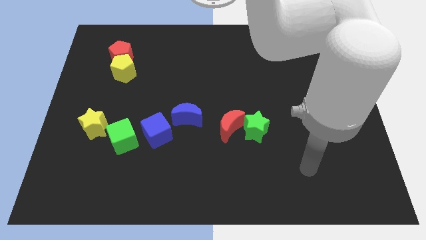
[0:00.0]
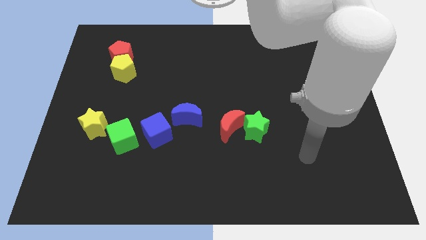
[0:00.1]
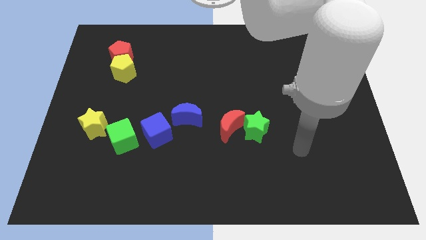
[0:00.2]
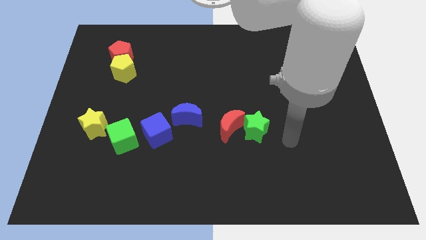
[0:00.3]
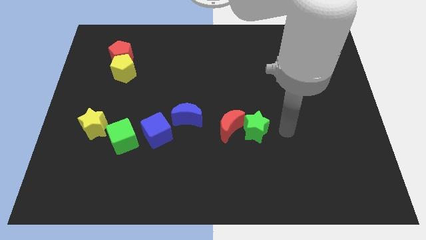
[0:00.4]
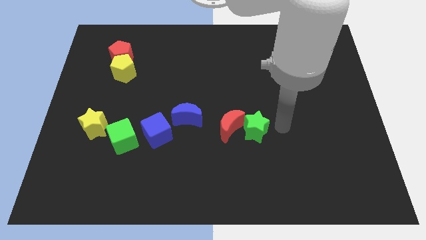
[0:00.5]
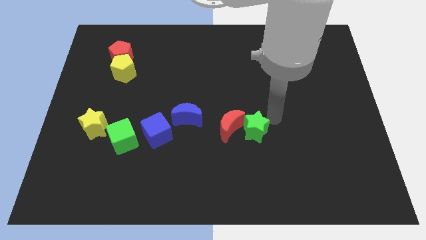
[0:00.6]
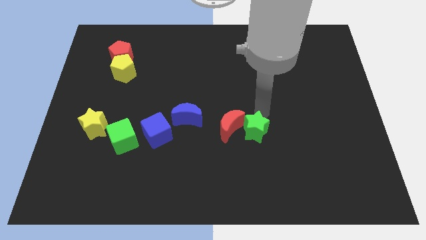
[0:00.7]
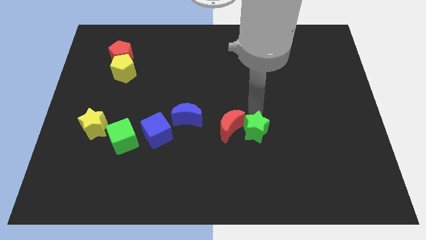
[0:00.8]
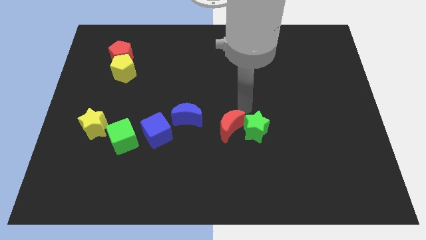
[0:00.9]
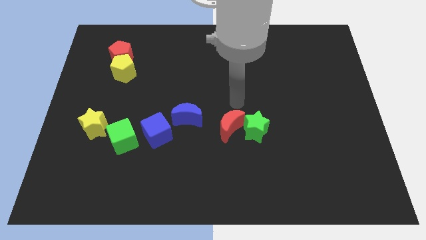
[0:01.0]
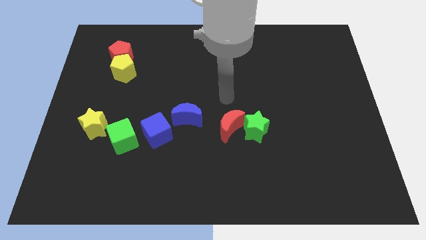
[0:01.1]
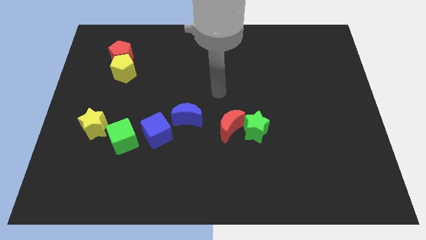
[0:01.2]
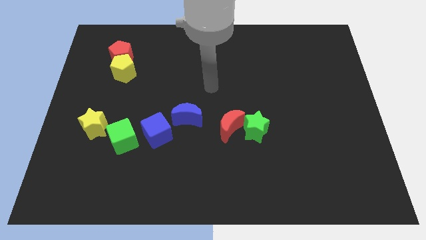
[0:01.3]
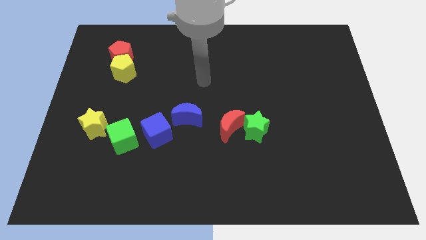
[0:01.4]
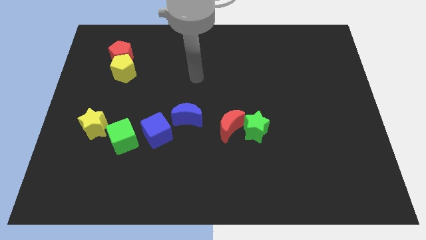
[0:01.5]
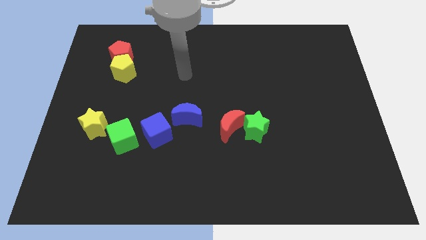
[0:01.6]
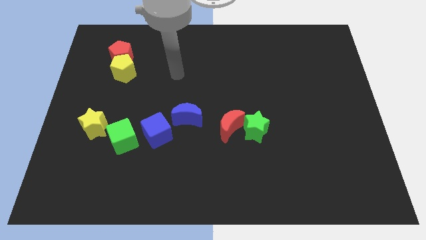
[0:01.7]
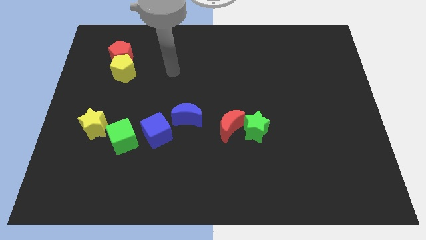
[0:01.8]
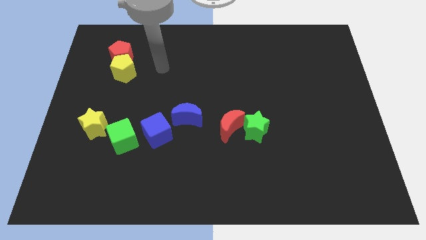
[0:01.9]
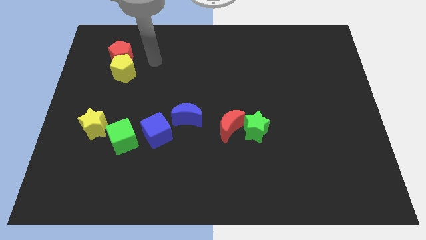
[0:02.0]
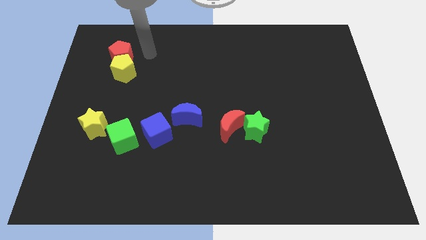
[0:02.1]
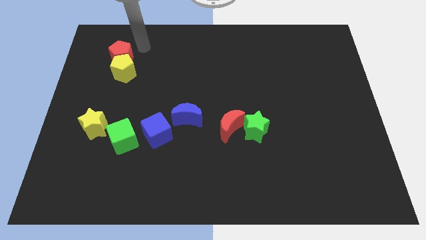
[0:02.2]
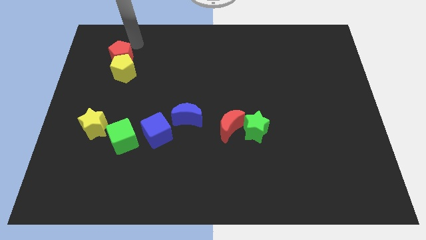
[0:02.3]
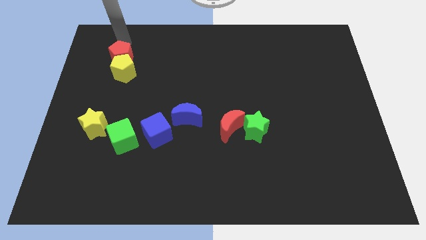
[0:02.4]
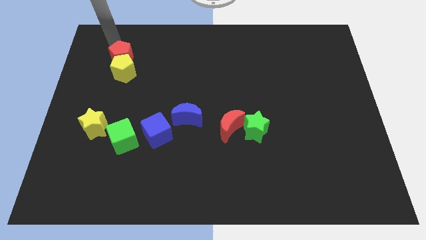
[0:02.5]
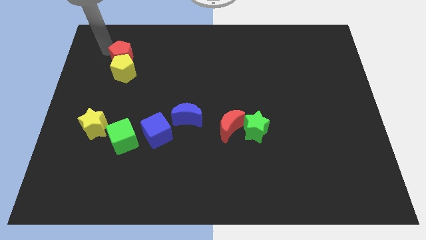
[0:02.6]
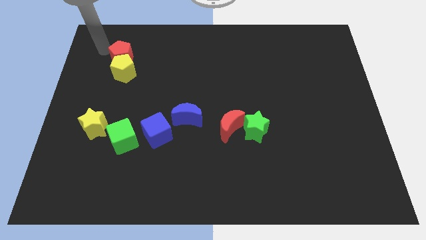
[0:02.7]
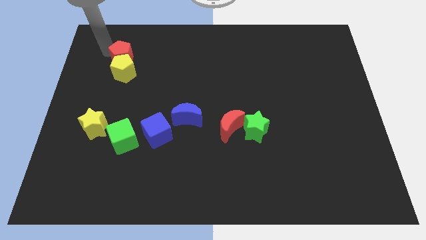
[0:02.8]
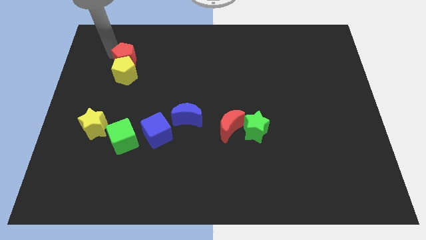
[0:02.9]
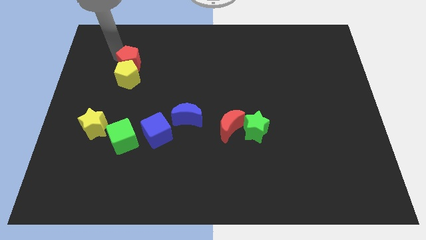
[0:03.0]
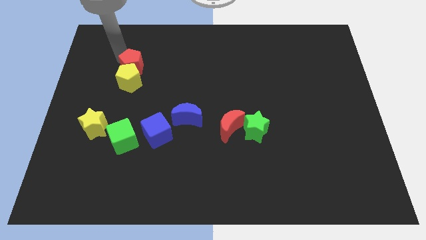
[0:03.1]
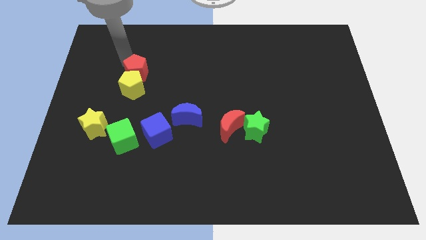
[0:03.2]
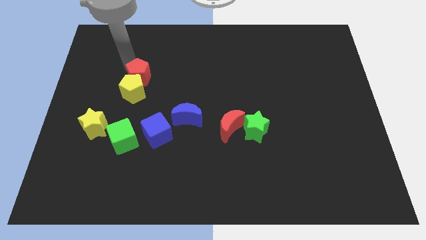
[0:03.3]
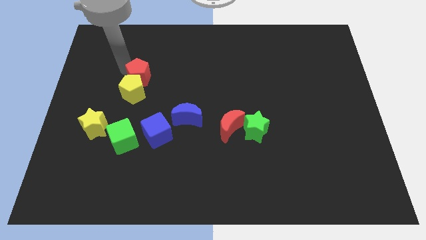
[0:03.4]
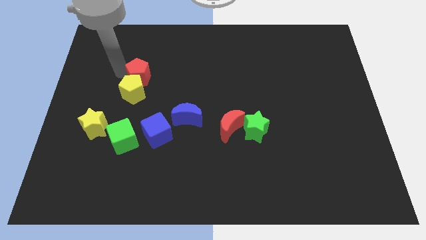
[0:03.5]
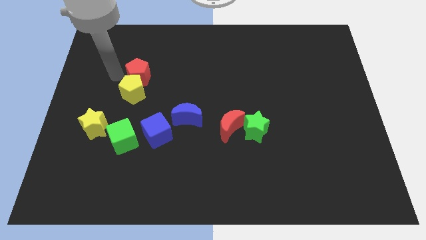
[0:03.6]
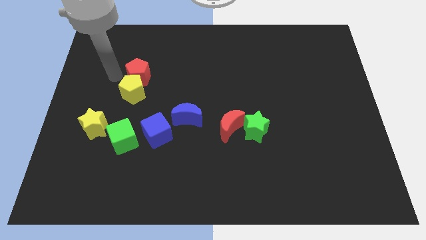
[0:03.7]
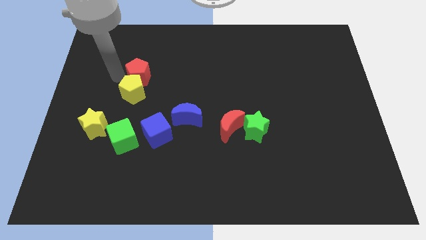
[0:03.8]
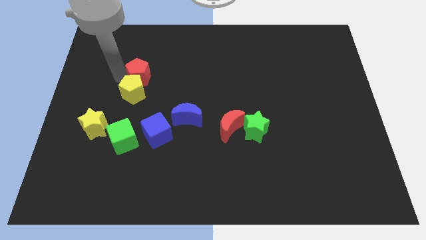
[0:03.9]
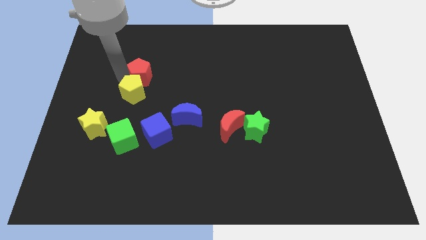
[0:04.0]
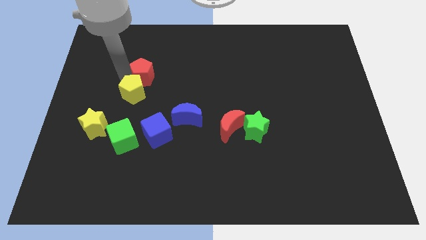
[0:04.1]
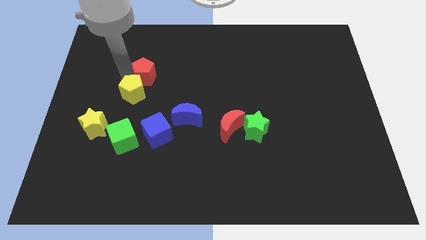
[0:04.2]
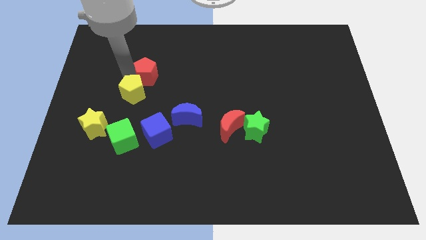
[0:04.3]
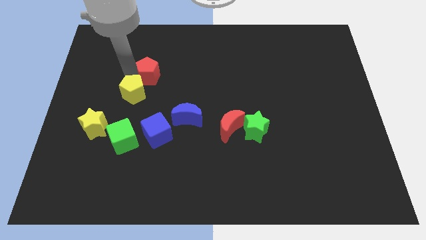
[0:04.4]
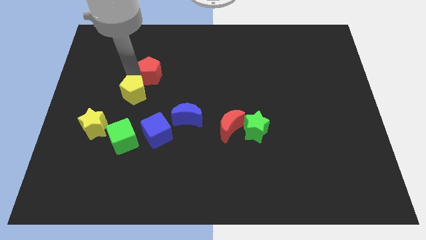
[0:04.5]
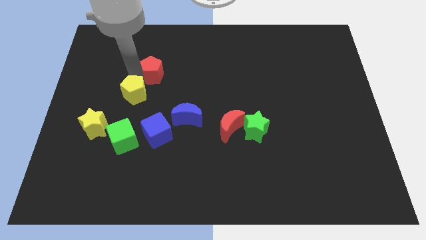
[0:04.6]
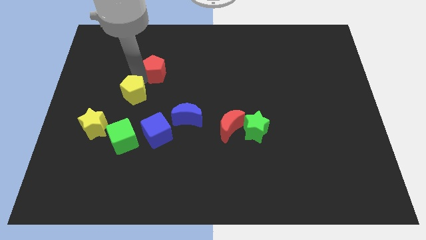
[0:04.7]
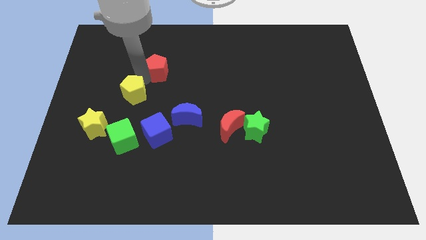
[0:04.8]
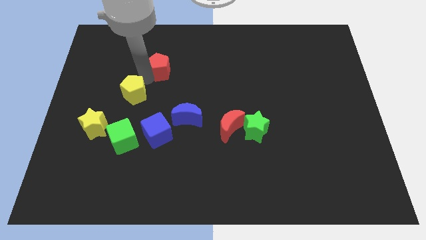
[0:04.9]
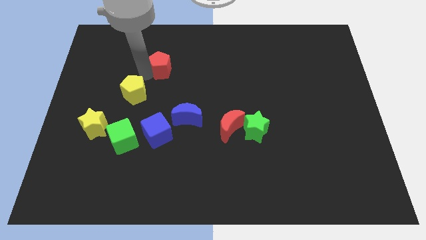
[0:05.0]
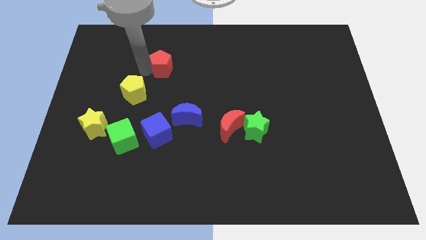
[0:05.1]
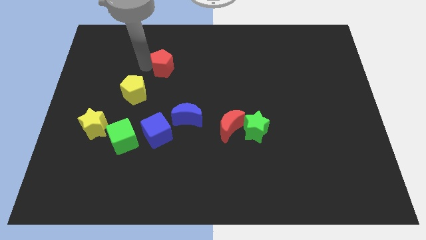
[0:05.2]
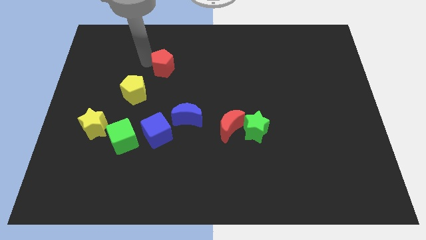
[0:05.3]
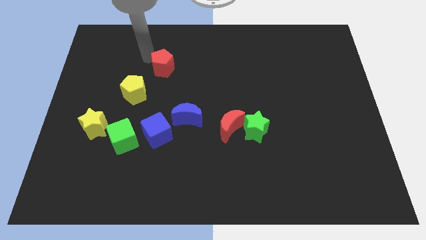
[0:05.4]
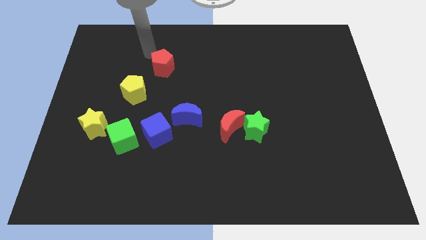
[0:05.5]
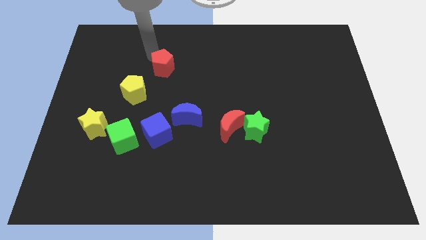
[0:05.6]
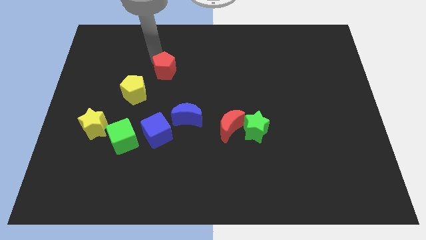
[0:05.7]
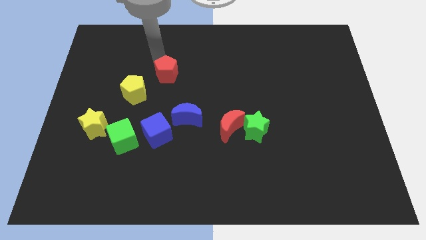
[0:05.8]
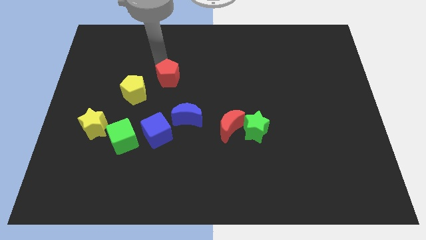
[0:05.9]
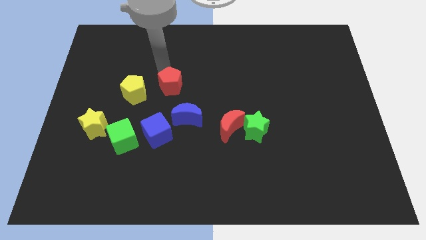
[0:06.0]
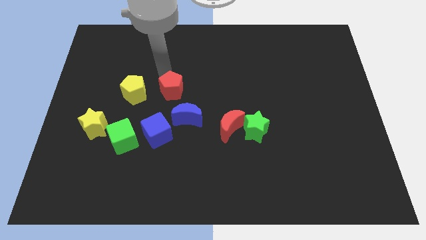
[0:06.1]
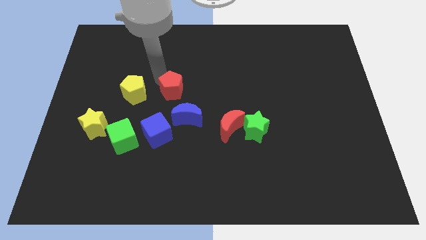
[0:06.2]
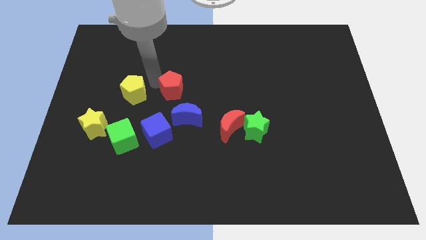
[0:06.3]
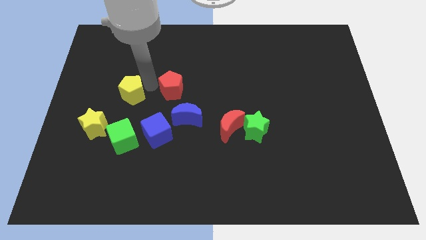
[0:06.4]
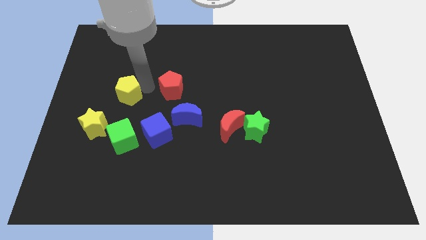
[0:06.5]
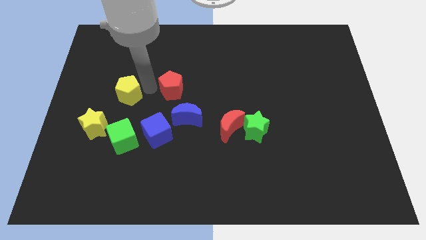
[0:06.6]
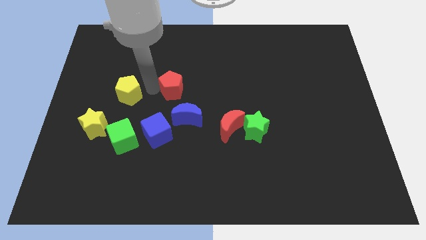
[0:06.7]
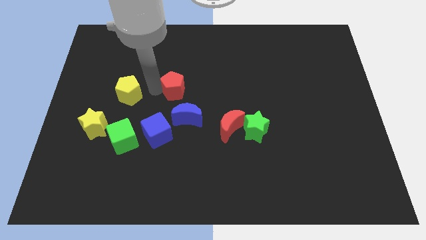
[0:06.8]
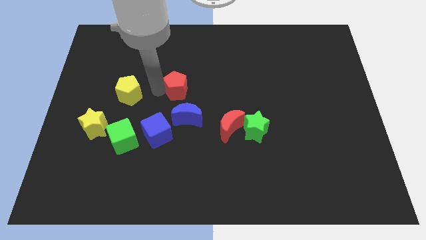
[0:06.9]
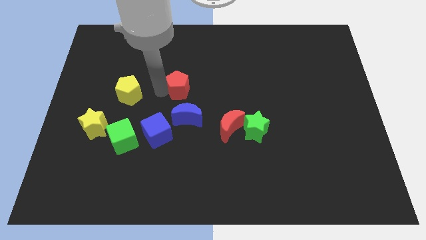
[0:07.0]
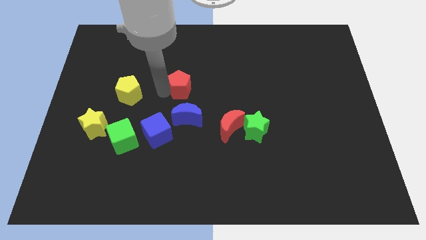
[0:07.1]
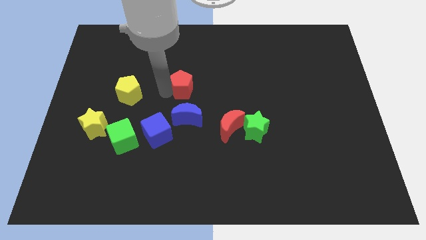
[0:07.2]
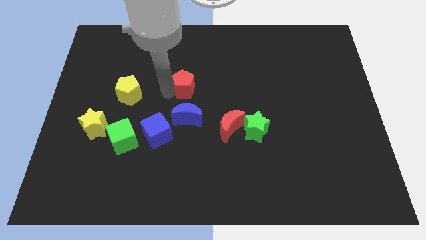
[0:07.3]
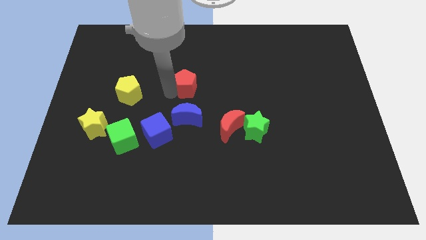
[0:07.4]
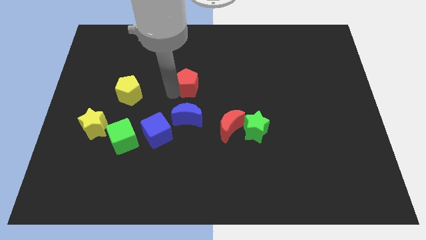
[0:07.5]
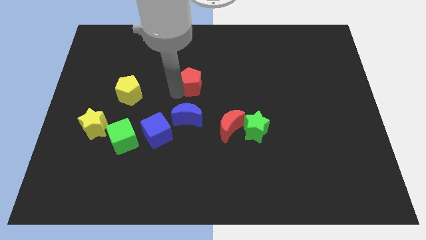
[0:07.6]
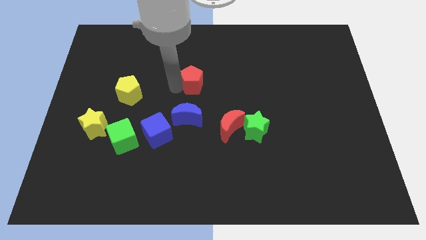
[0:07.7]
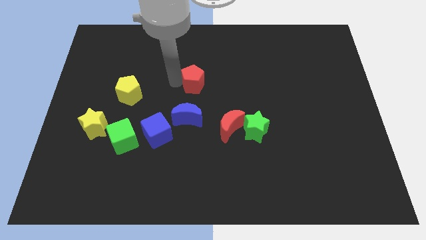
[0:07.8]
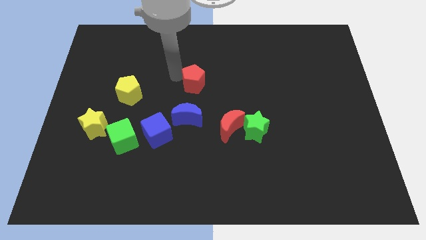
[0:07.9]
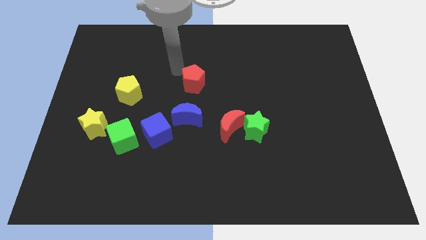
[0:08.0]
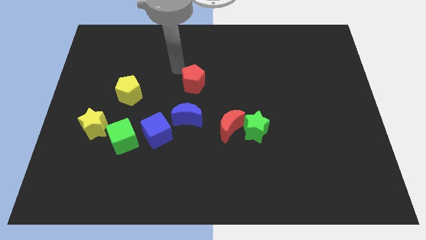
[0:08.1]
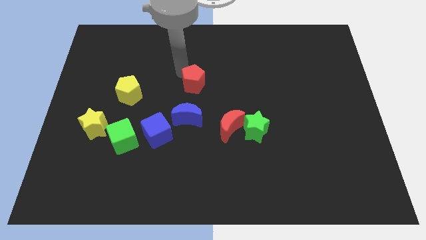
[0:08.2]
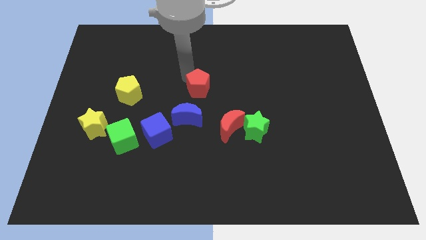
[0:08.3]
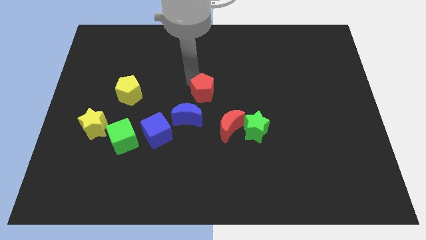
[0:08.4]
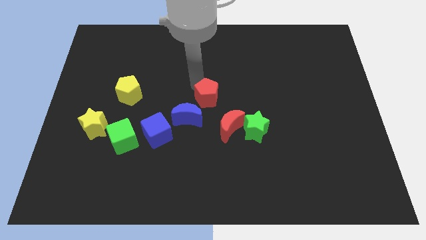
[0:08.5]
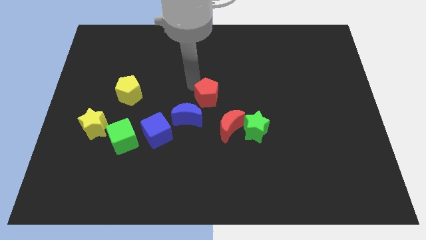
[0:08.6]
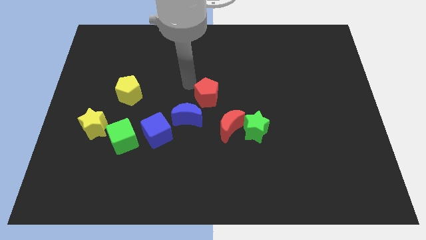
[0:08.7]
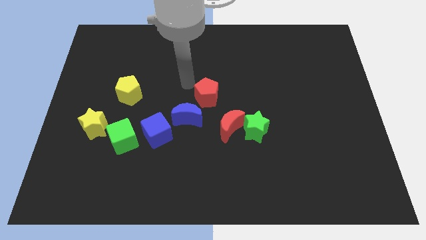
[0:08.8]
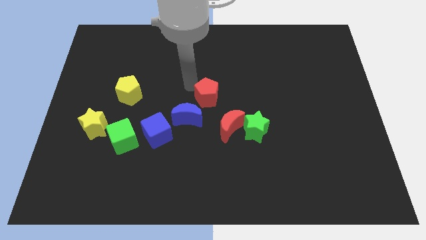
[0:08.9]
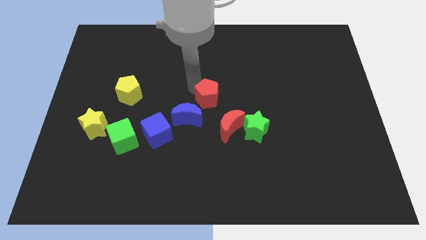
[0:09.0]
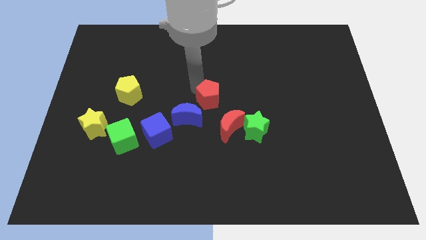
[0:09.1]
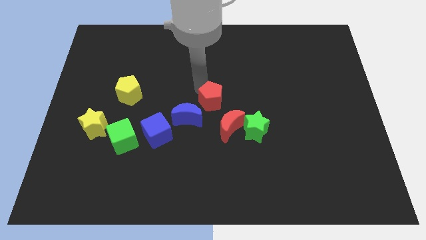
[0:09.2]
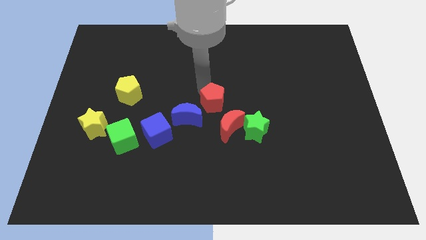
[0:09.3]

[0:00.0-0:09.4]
move the red pentagon just right of the blue moon
